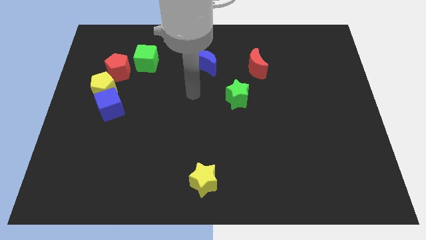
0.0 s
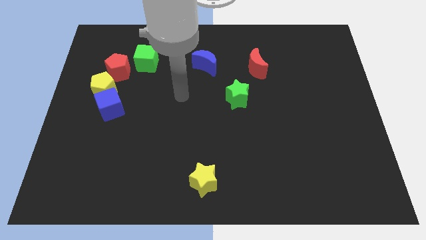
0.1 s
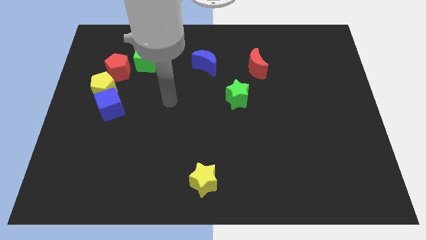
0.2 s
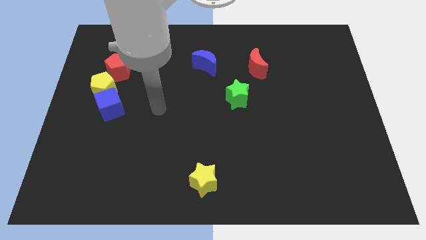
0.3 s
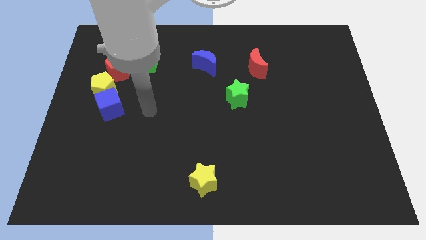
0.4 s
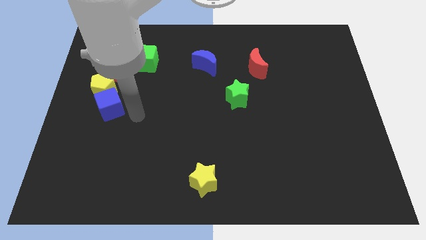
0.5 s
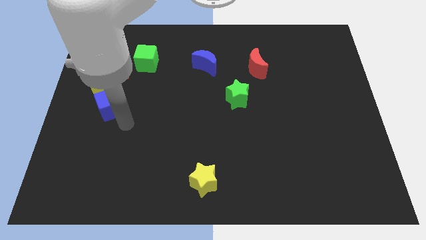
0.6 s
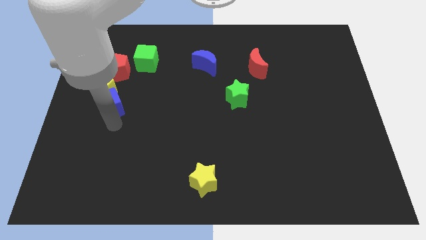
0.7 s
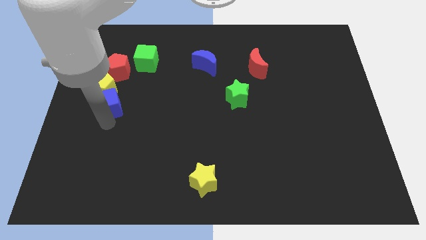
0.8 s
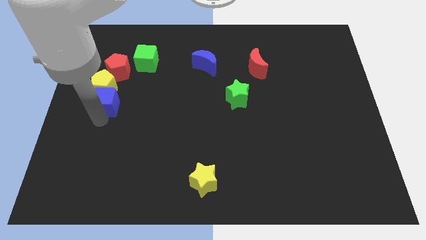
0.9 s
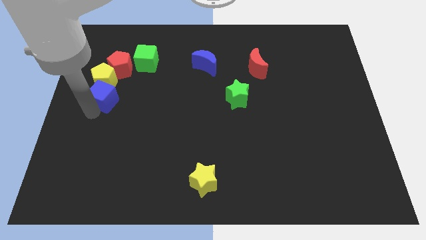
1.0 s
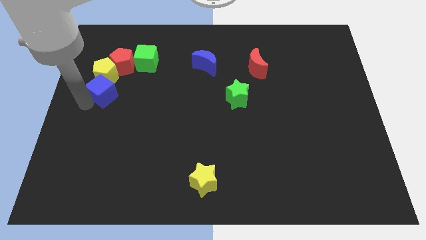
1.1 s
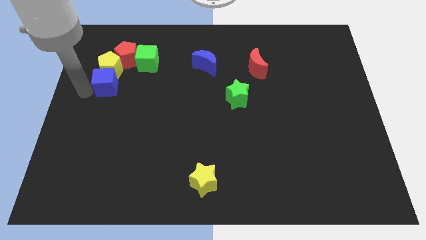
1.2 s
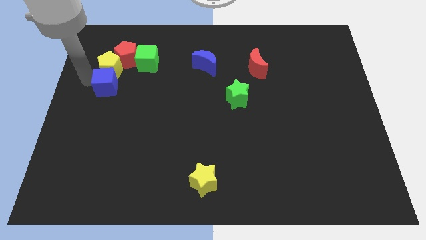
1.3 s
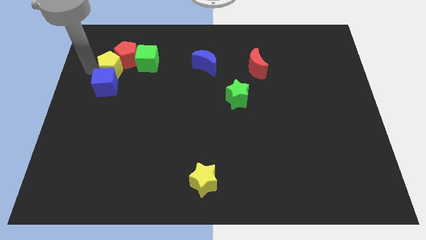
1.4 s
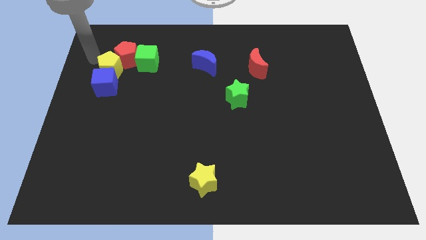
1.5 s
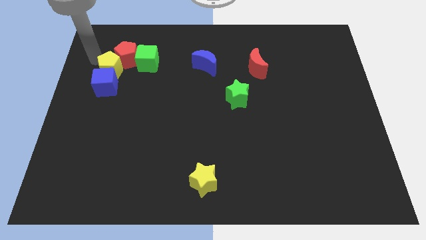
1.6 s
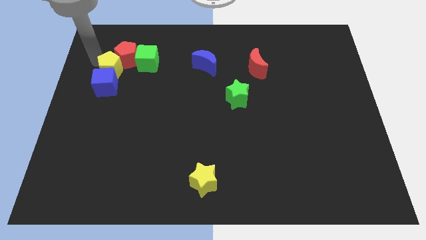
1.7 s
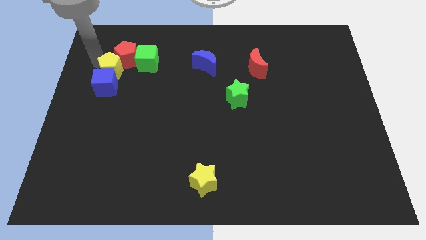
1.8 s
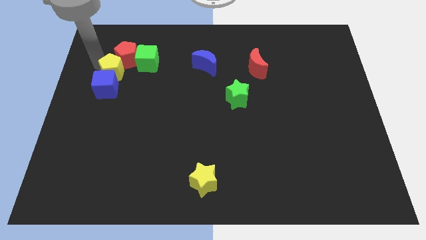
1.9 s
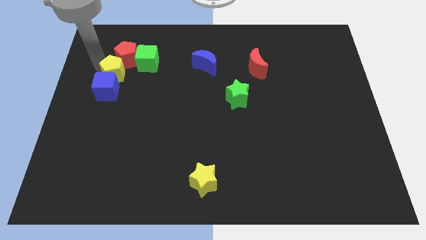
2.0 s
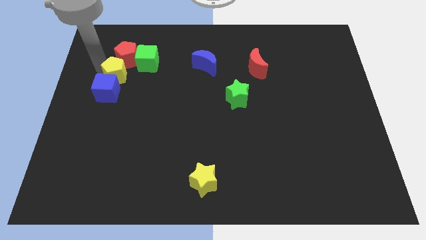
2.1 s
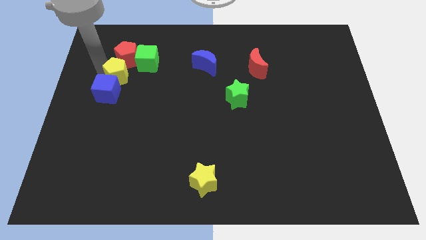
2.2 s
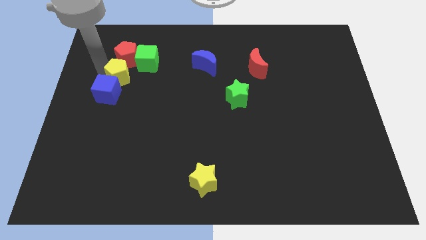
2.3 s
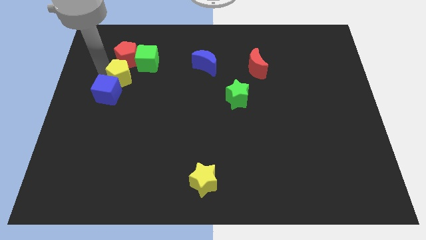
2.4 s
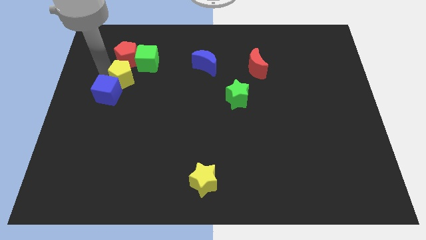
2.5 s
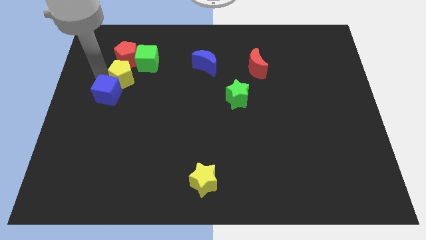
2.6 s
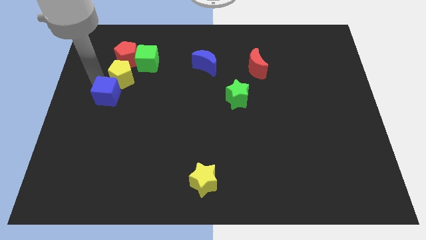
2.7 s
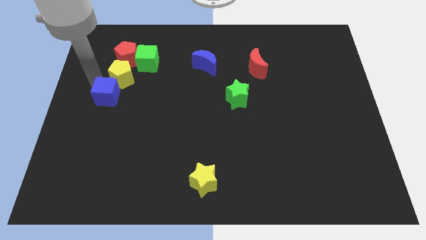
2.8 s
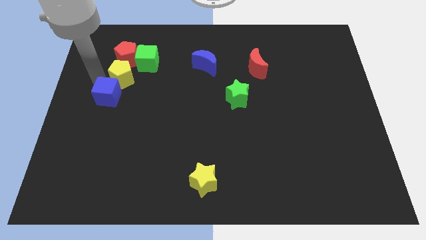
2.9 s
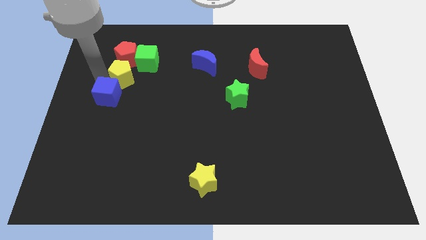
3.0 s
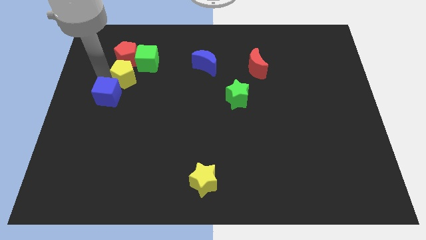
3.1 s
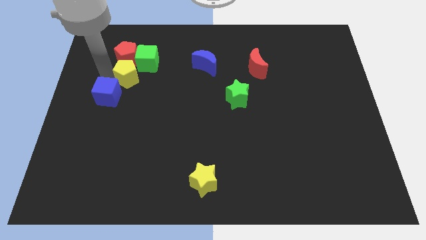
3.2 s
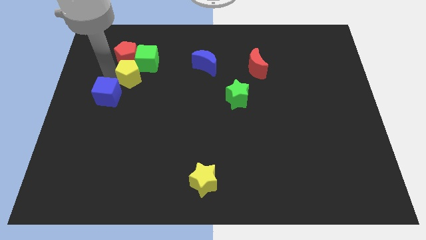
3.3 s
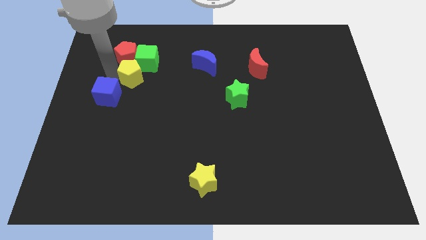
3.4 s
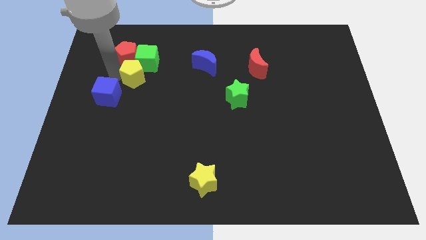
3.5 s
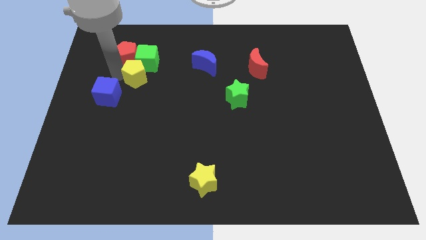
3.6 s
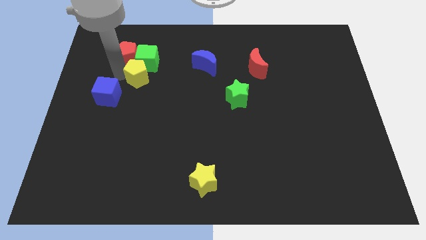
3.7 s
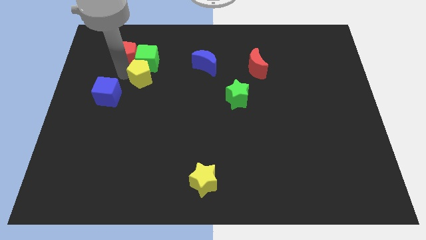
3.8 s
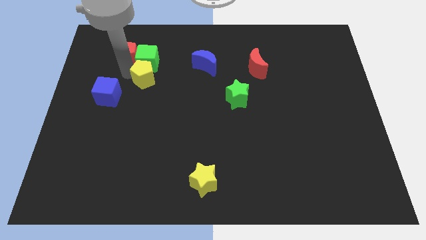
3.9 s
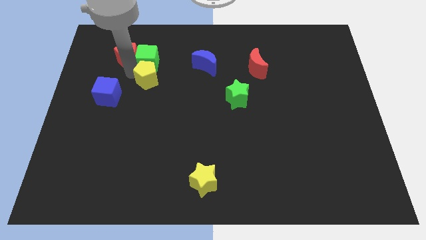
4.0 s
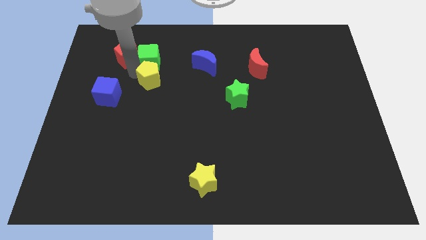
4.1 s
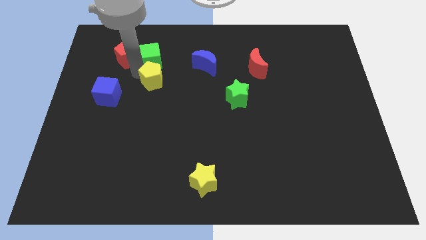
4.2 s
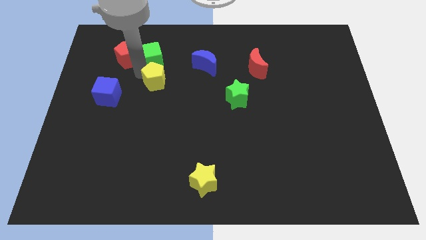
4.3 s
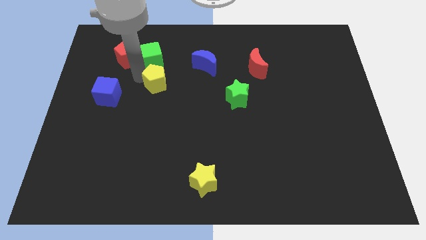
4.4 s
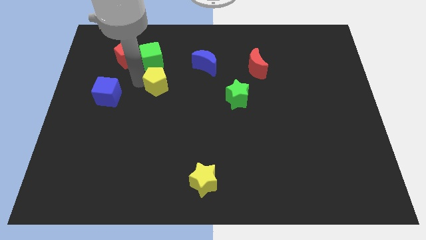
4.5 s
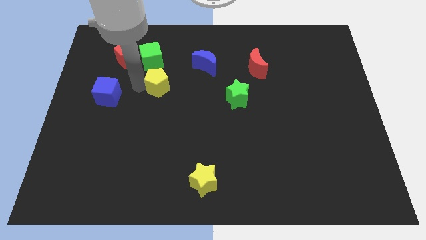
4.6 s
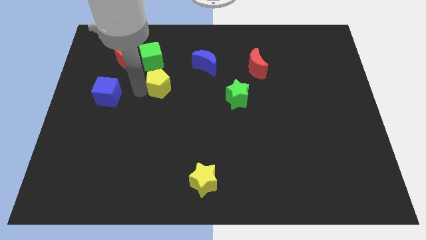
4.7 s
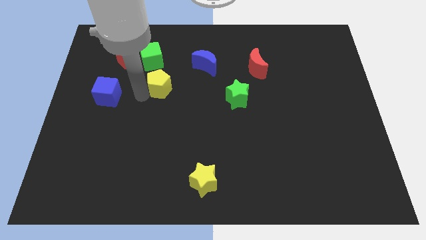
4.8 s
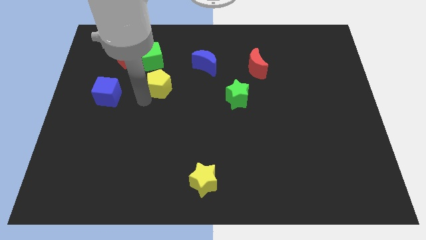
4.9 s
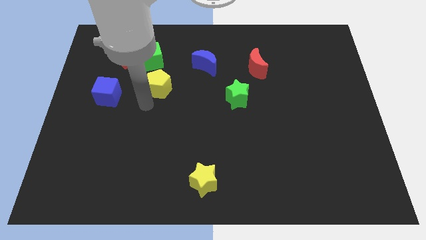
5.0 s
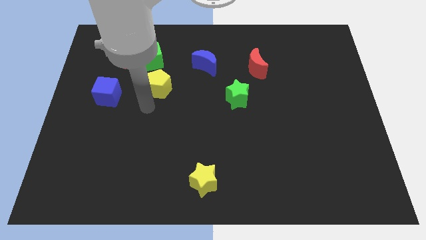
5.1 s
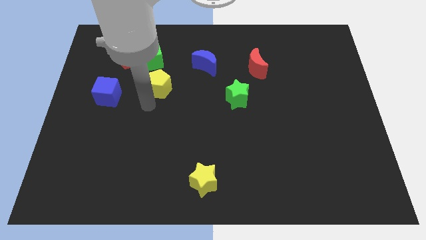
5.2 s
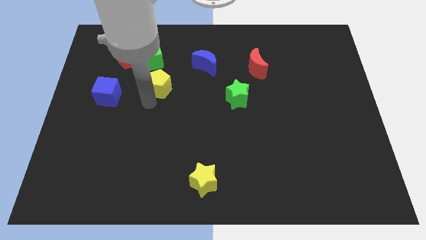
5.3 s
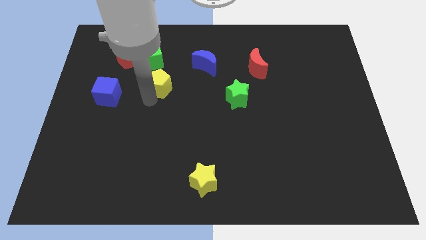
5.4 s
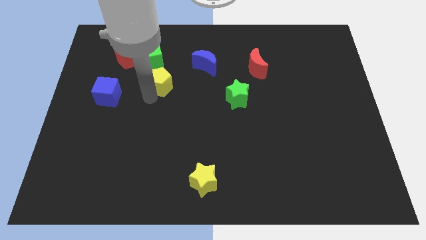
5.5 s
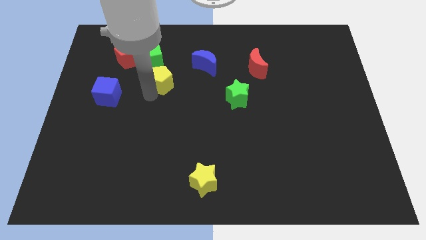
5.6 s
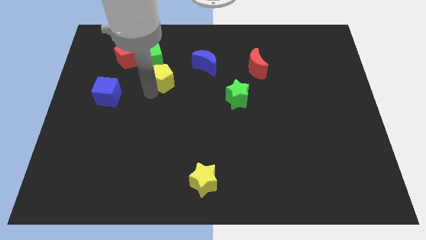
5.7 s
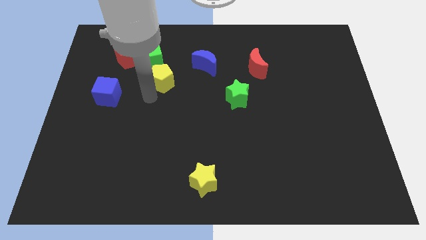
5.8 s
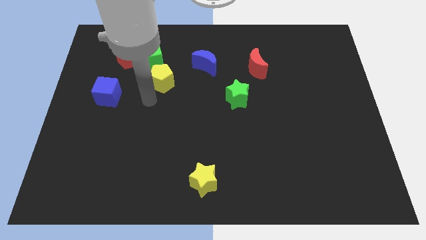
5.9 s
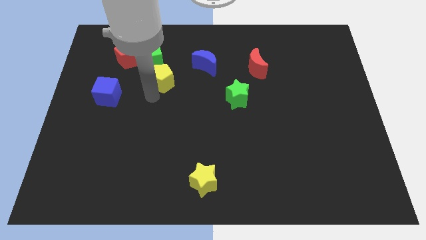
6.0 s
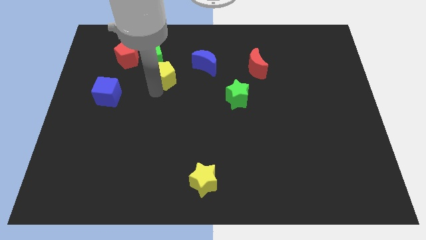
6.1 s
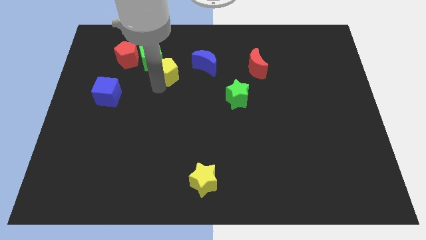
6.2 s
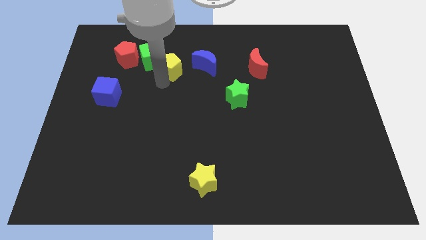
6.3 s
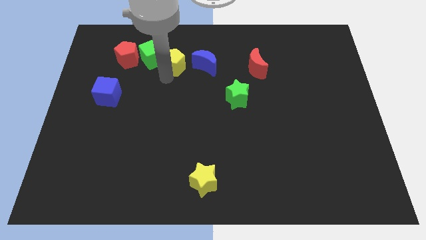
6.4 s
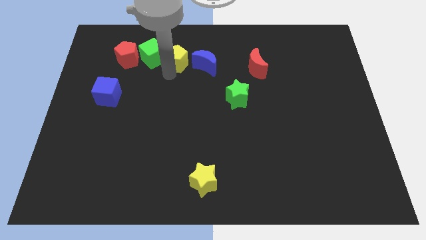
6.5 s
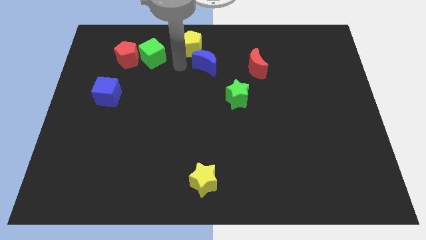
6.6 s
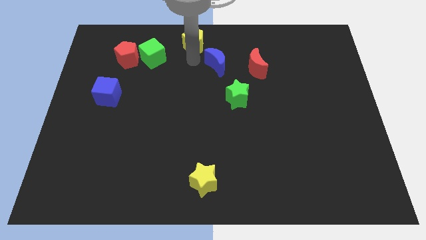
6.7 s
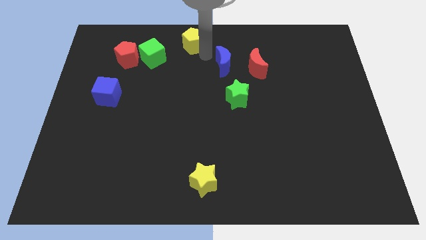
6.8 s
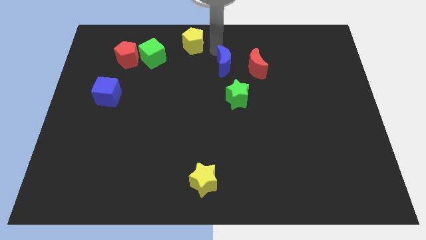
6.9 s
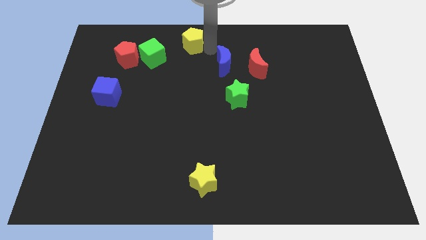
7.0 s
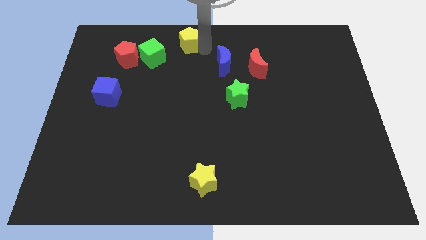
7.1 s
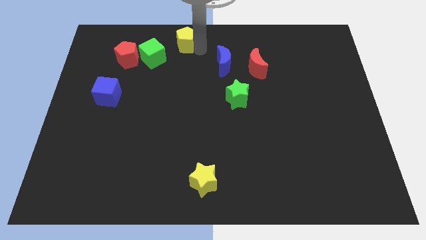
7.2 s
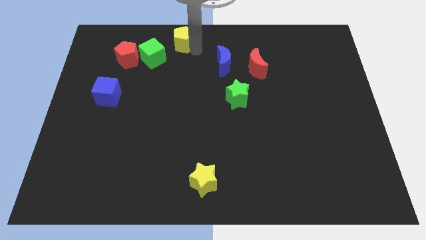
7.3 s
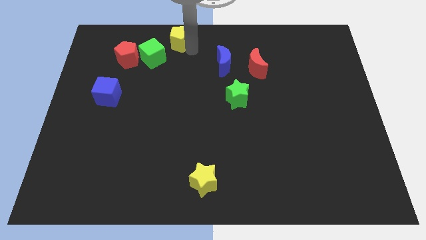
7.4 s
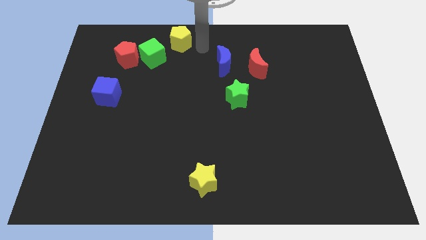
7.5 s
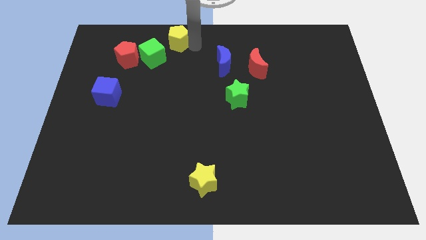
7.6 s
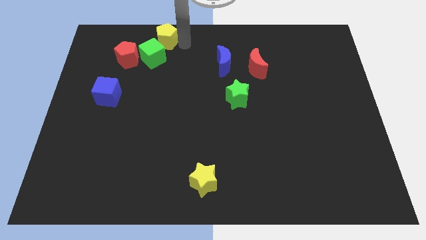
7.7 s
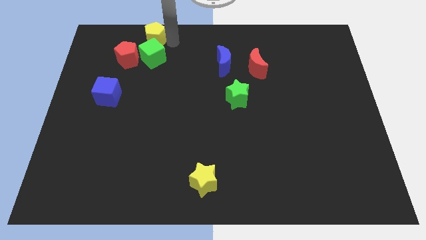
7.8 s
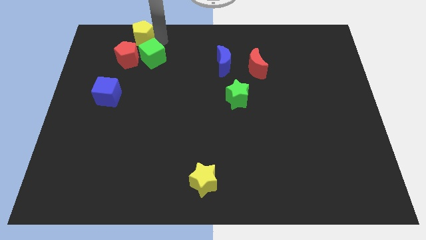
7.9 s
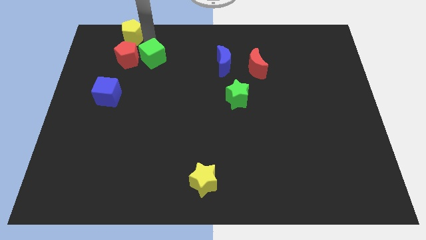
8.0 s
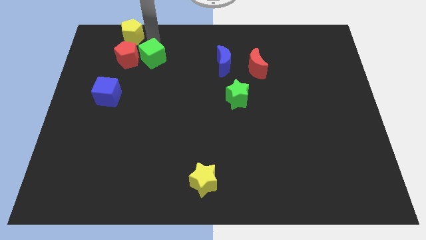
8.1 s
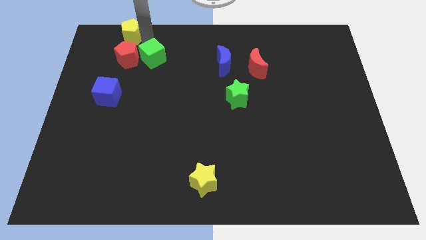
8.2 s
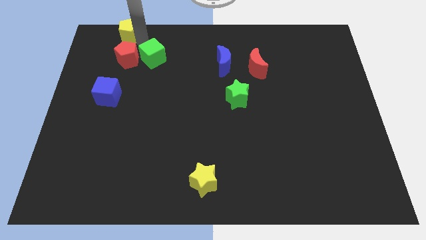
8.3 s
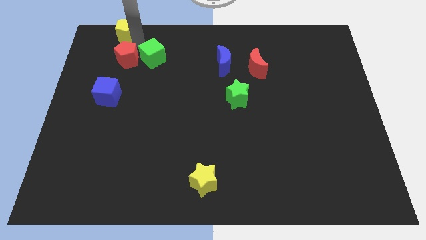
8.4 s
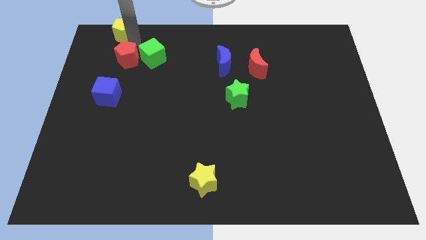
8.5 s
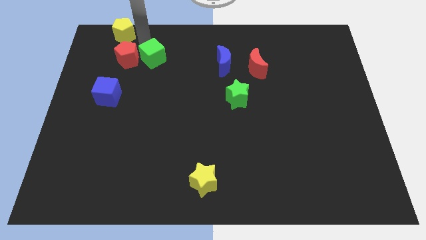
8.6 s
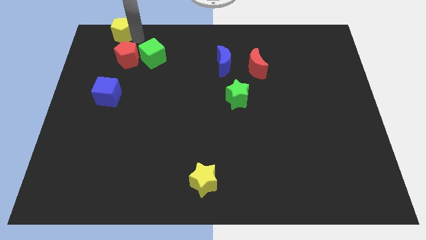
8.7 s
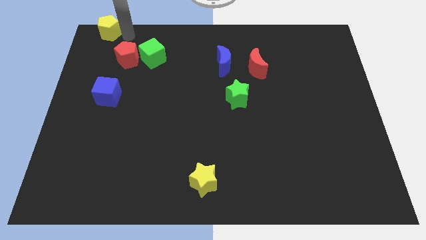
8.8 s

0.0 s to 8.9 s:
put the yellow pentagon to the top left corner
